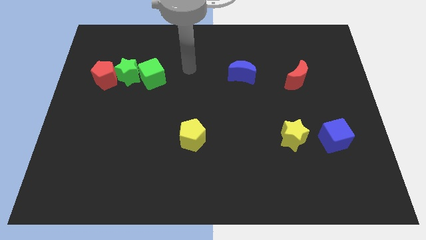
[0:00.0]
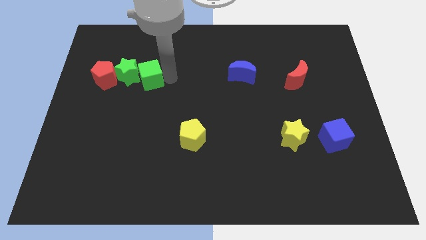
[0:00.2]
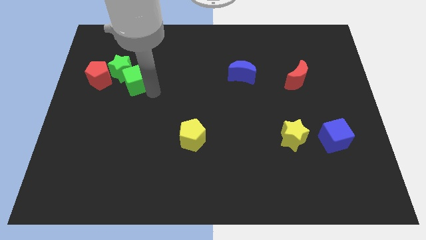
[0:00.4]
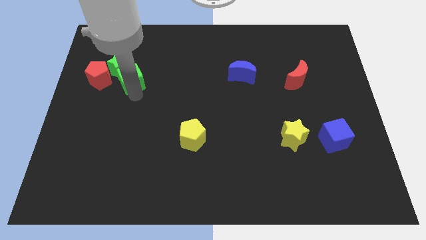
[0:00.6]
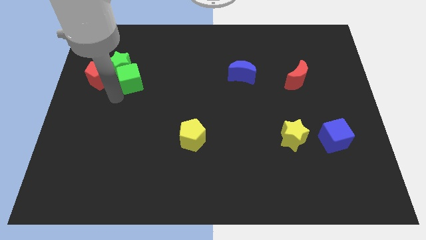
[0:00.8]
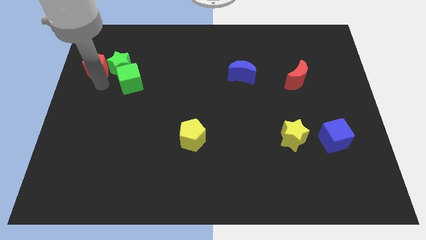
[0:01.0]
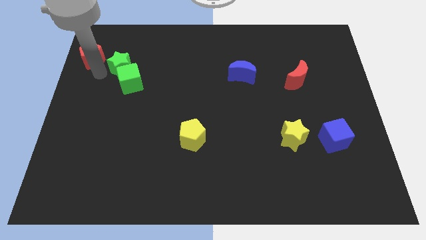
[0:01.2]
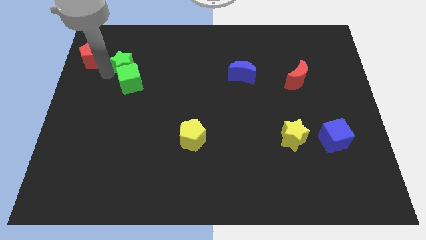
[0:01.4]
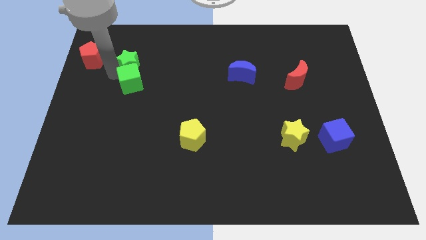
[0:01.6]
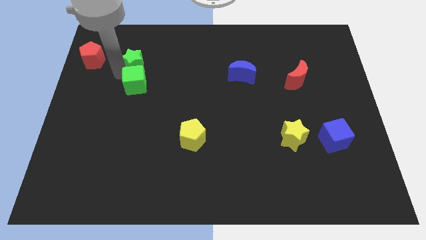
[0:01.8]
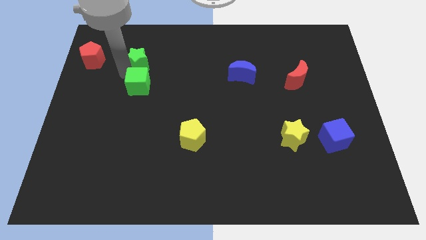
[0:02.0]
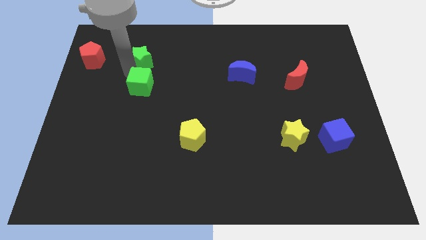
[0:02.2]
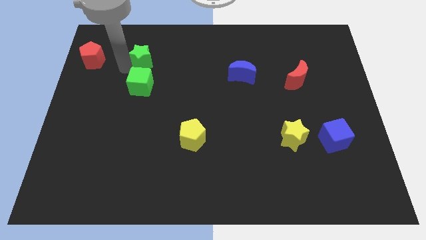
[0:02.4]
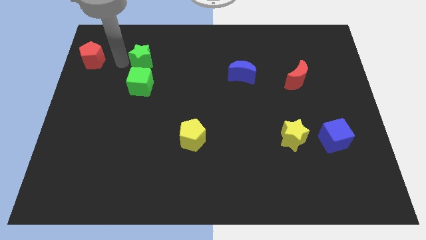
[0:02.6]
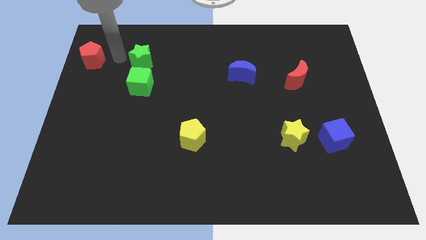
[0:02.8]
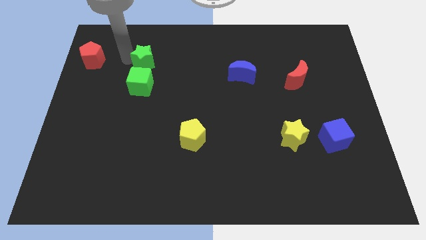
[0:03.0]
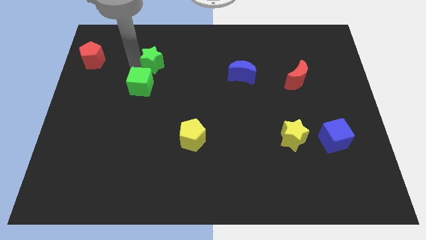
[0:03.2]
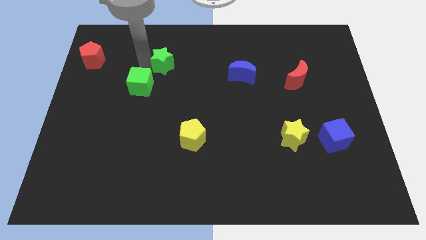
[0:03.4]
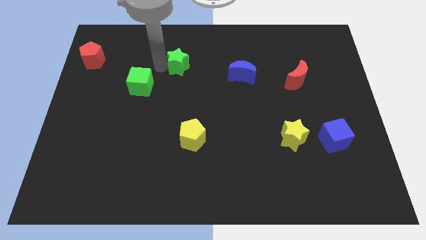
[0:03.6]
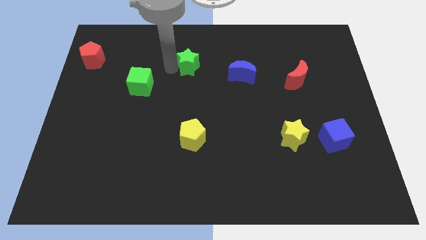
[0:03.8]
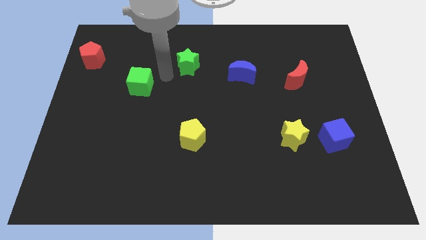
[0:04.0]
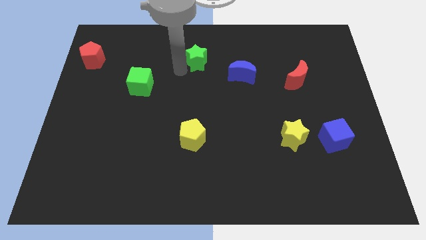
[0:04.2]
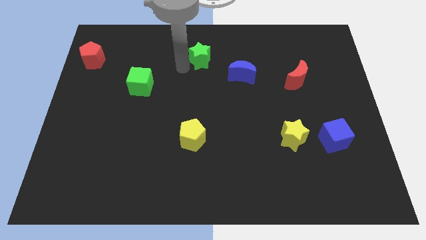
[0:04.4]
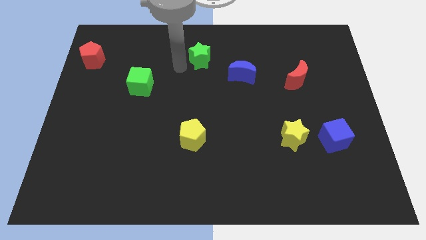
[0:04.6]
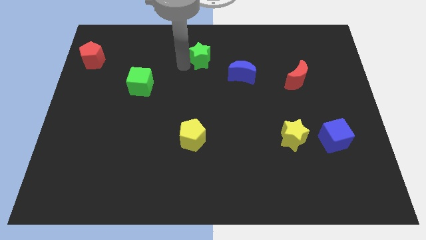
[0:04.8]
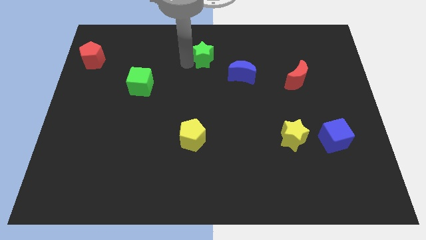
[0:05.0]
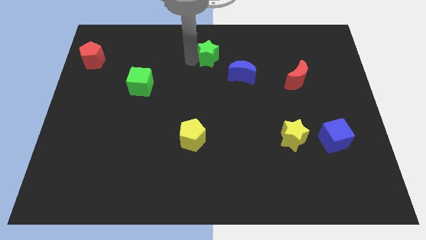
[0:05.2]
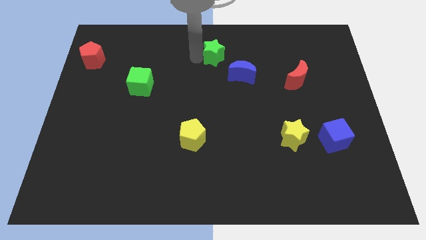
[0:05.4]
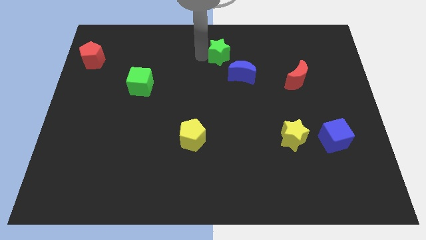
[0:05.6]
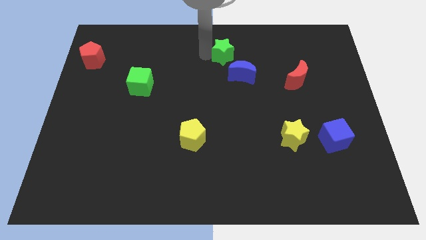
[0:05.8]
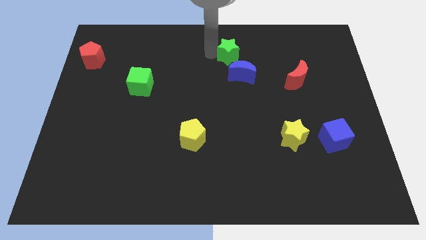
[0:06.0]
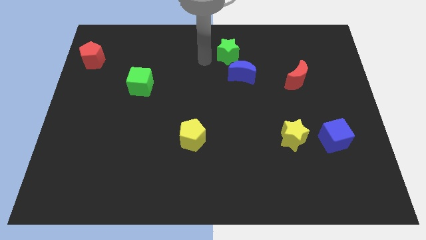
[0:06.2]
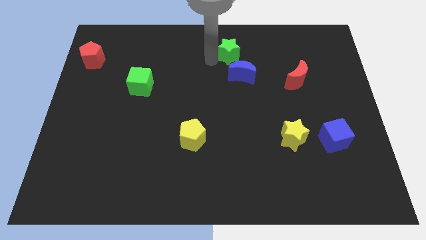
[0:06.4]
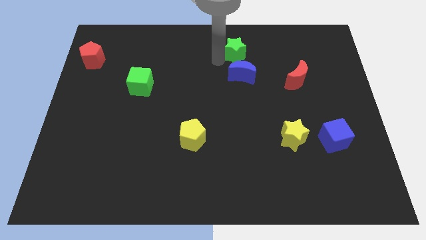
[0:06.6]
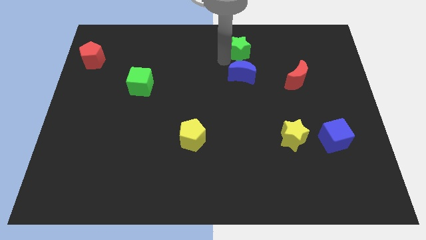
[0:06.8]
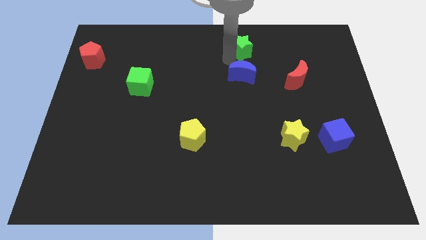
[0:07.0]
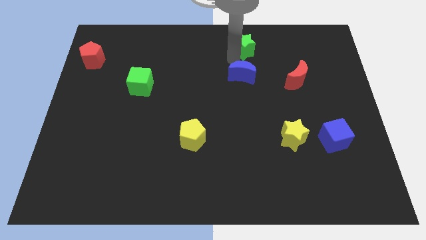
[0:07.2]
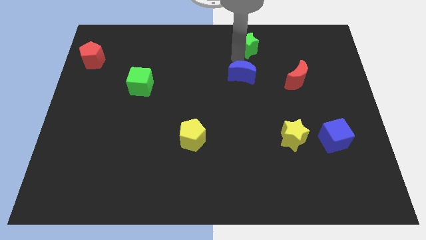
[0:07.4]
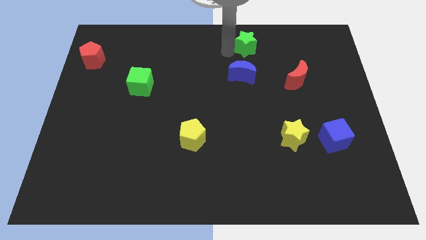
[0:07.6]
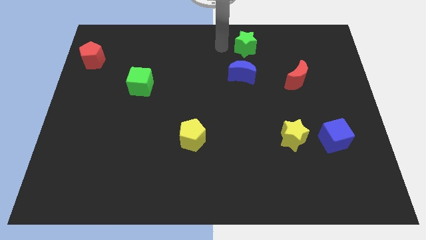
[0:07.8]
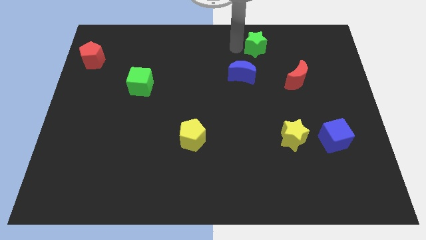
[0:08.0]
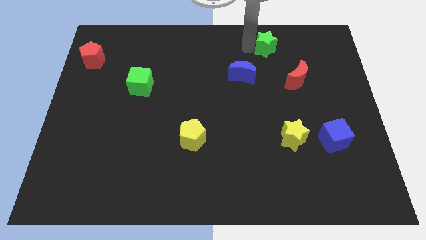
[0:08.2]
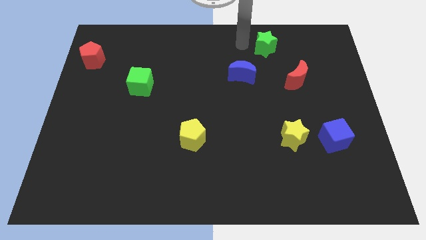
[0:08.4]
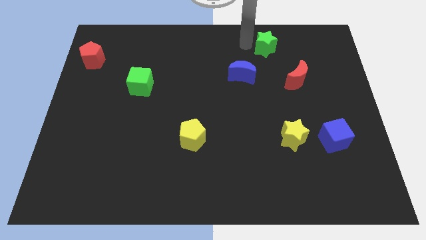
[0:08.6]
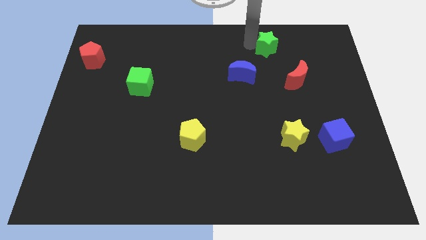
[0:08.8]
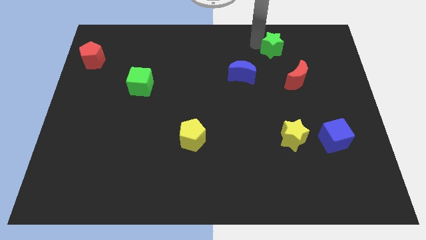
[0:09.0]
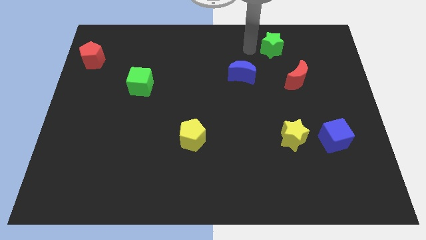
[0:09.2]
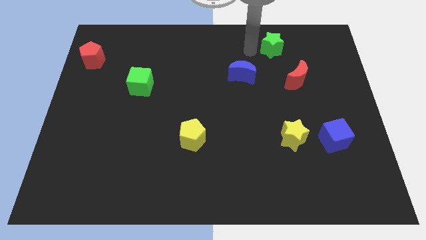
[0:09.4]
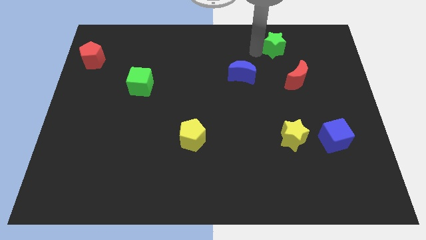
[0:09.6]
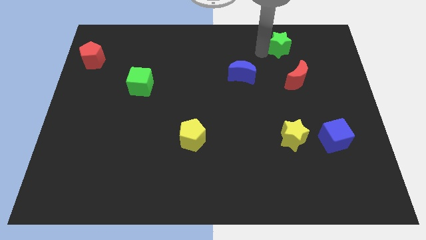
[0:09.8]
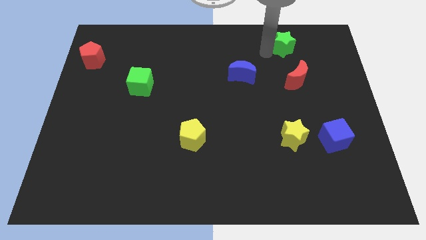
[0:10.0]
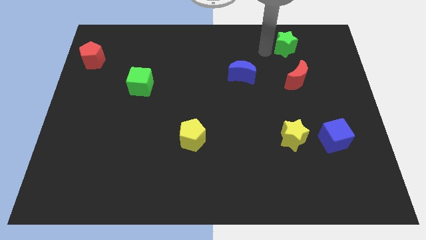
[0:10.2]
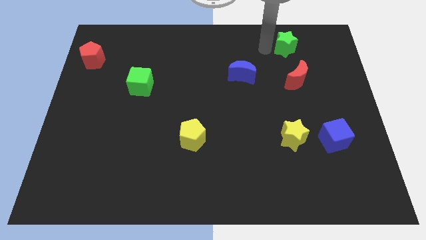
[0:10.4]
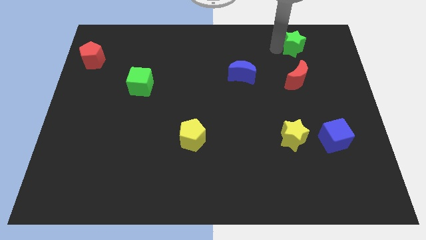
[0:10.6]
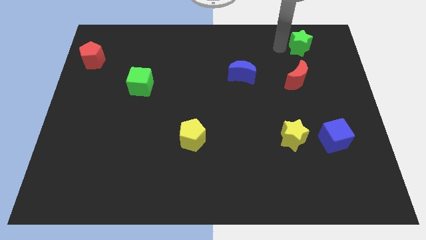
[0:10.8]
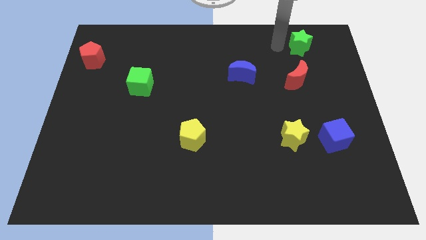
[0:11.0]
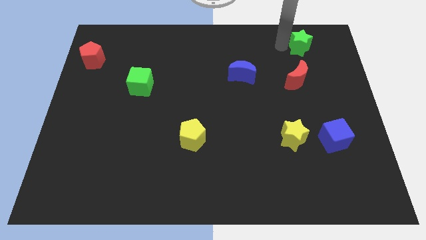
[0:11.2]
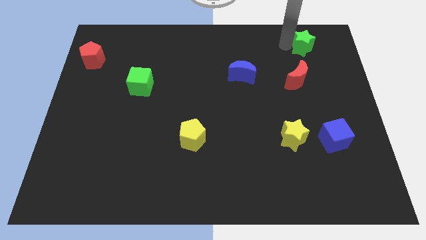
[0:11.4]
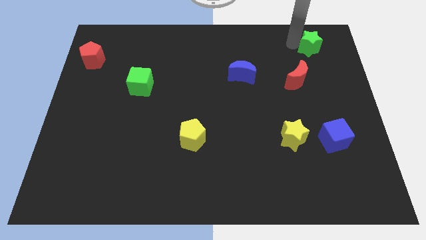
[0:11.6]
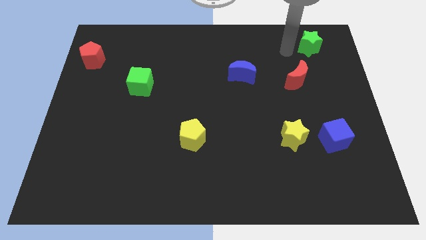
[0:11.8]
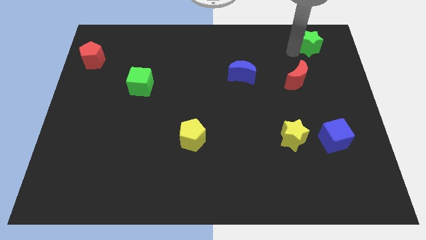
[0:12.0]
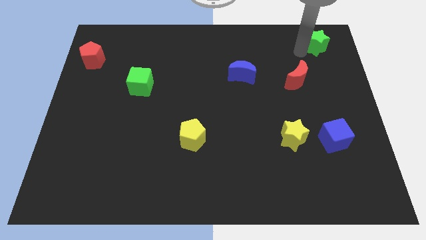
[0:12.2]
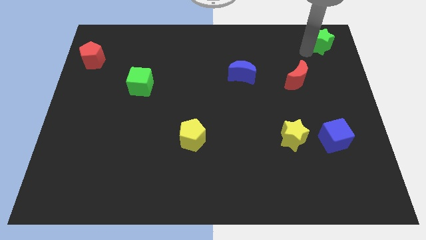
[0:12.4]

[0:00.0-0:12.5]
move the green star to the top right corner

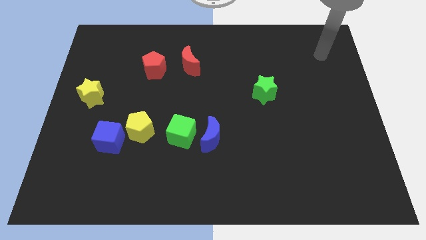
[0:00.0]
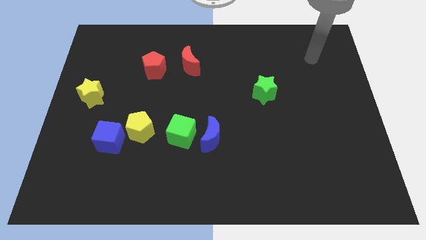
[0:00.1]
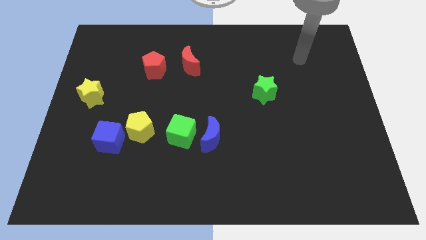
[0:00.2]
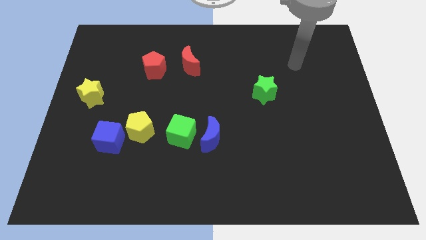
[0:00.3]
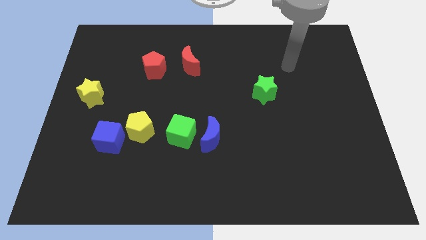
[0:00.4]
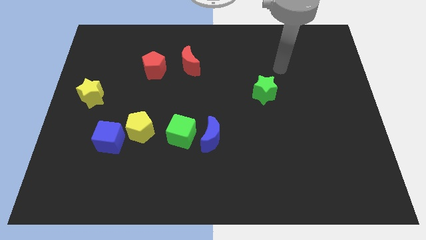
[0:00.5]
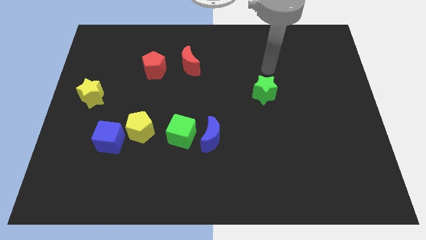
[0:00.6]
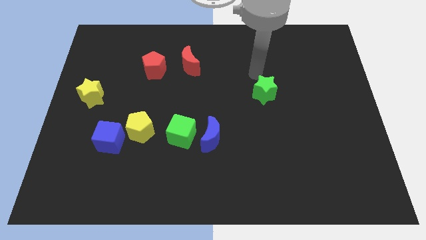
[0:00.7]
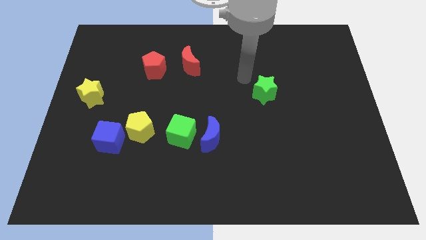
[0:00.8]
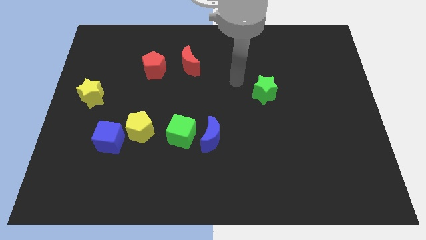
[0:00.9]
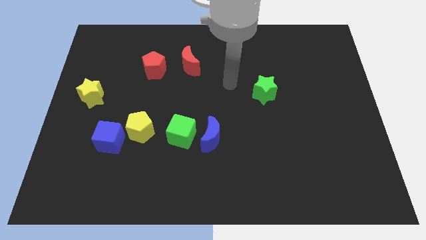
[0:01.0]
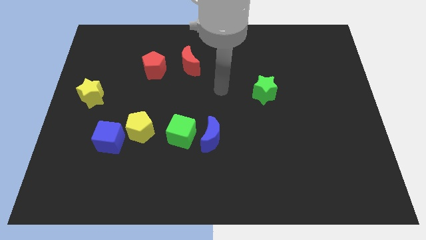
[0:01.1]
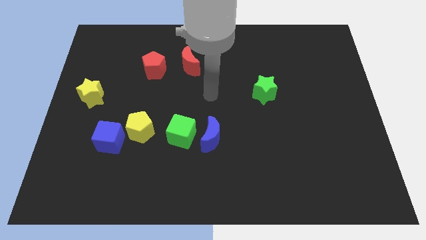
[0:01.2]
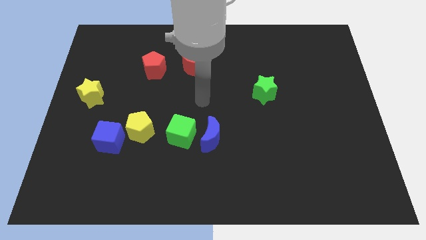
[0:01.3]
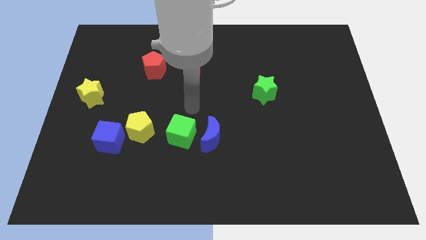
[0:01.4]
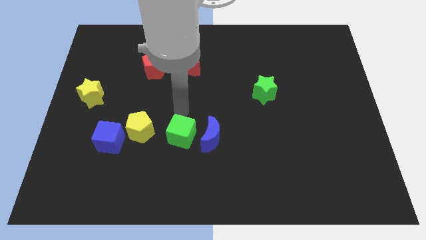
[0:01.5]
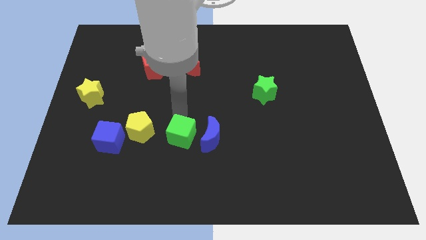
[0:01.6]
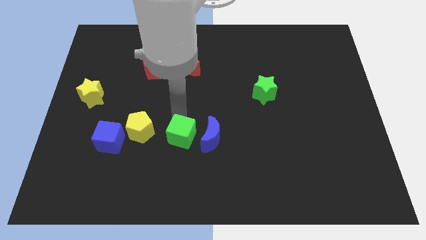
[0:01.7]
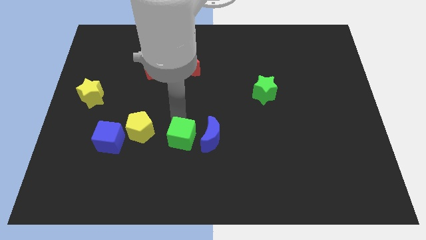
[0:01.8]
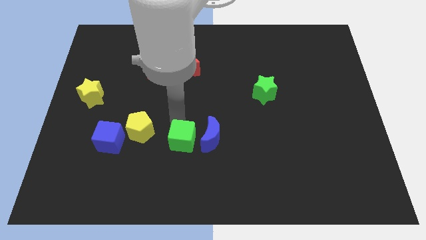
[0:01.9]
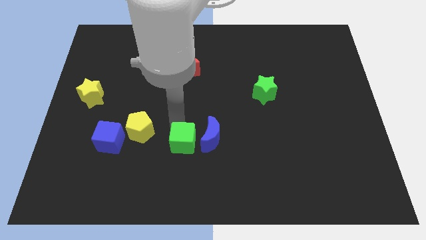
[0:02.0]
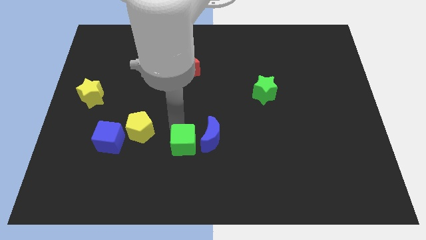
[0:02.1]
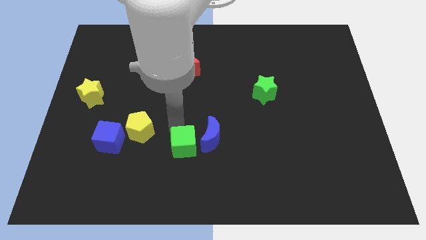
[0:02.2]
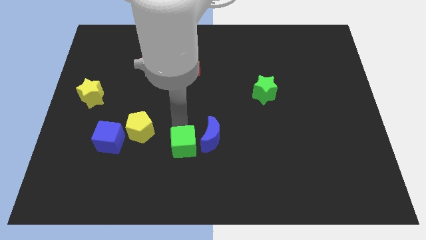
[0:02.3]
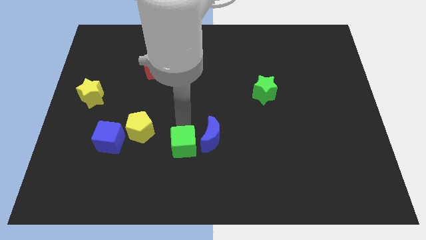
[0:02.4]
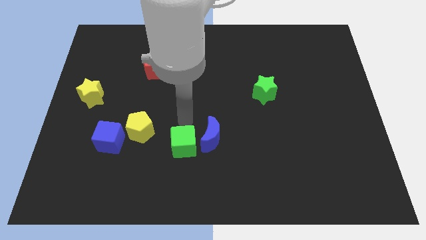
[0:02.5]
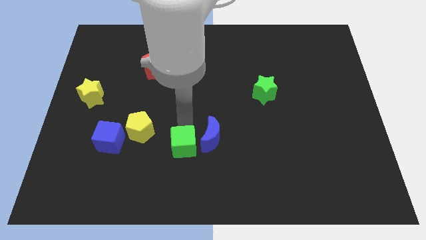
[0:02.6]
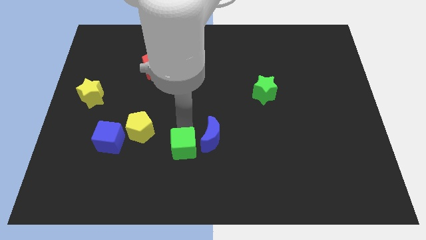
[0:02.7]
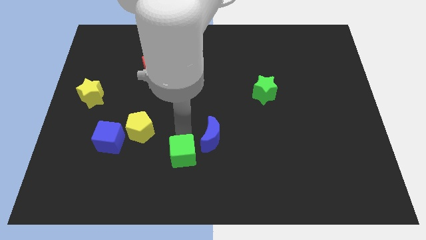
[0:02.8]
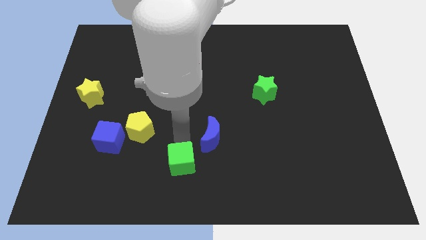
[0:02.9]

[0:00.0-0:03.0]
slide the green cube to the bottom
